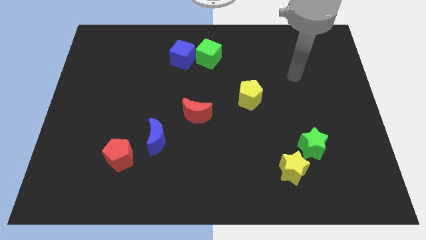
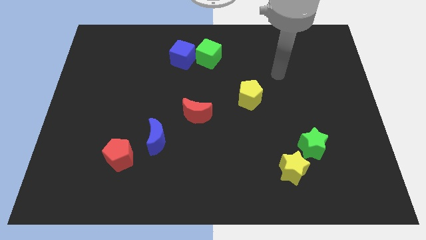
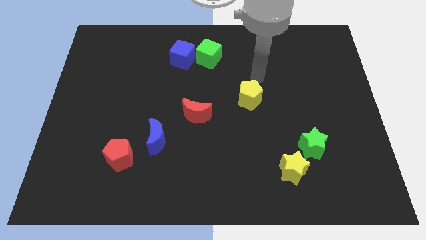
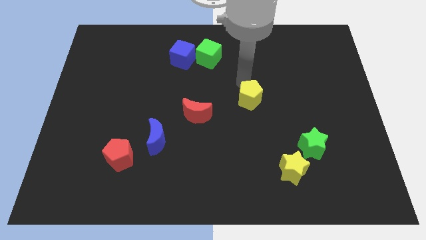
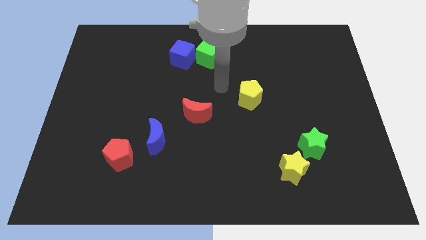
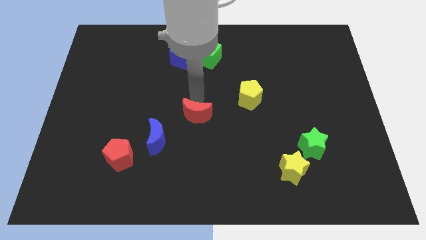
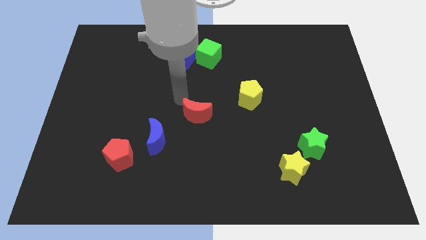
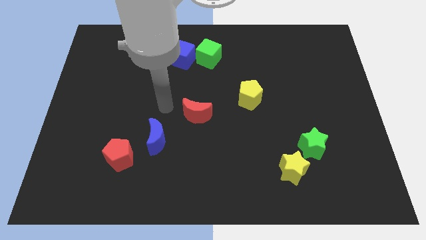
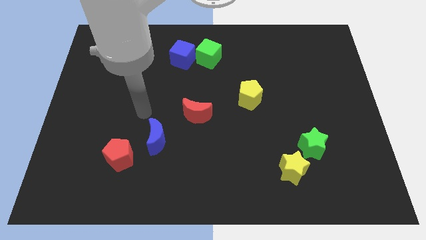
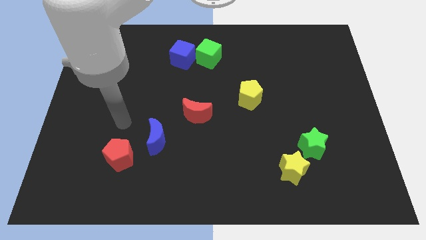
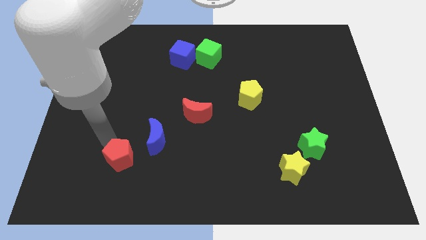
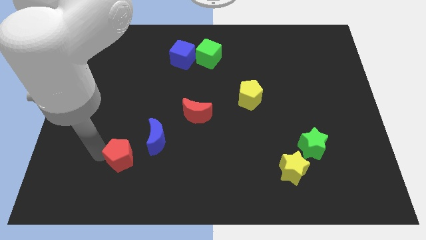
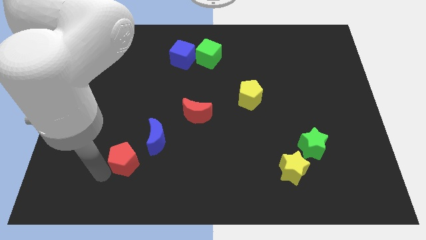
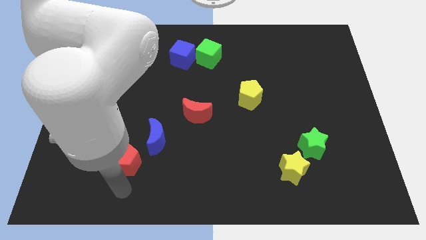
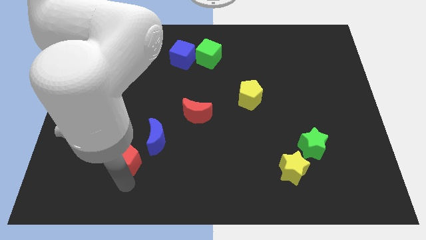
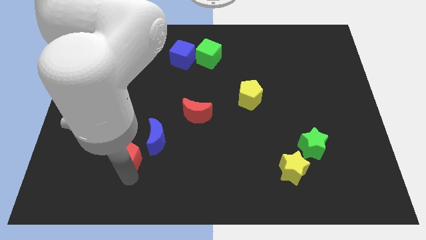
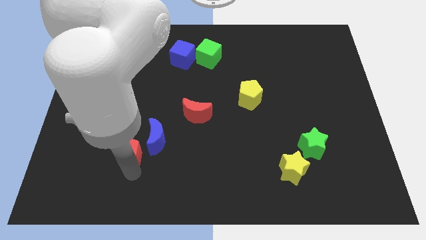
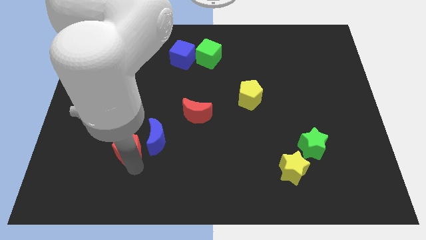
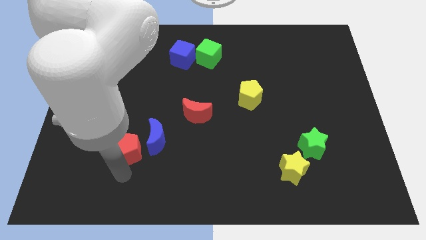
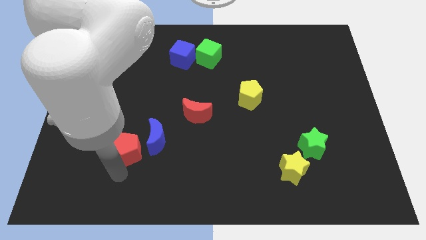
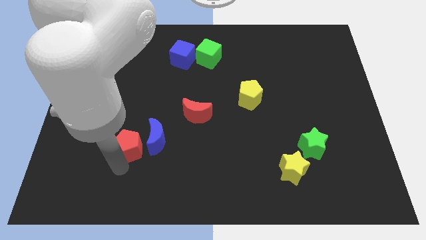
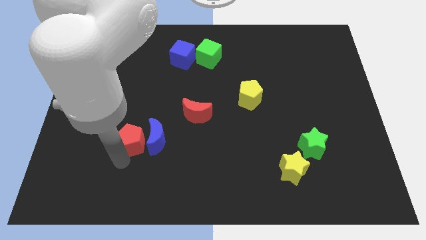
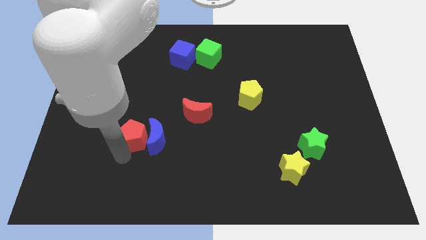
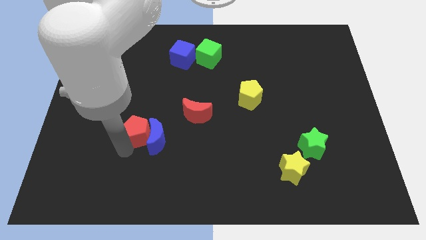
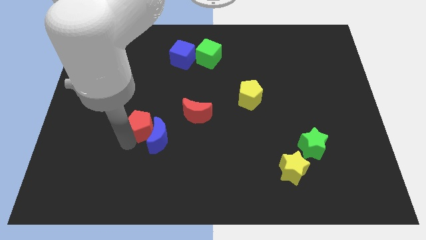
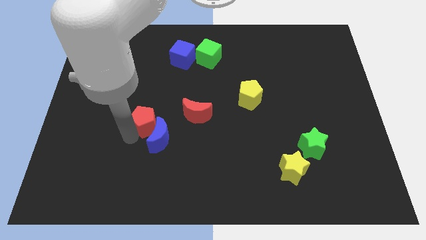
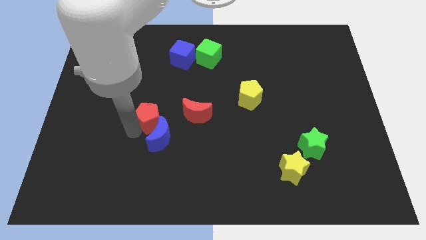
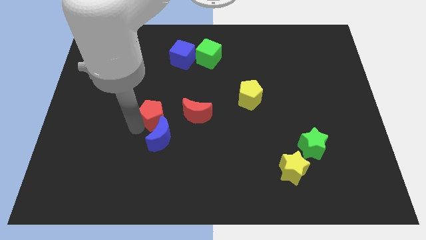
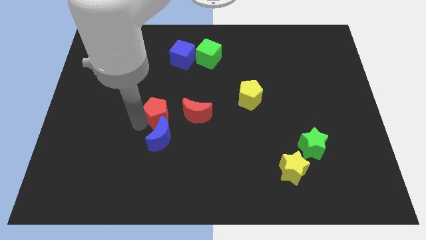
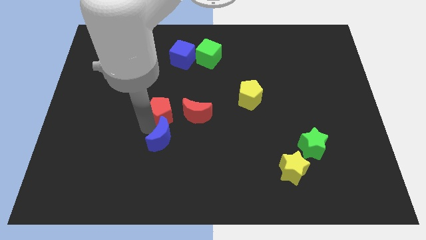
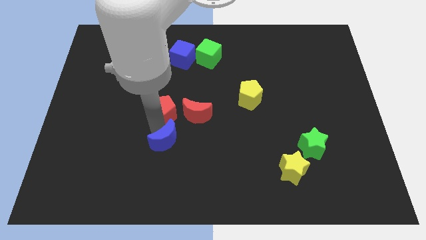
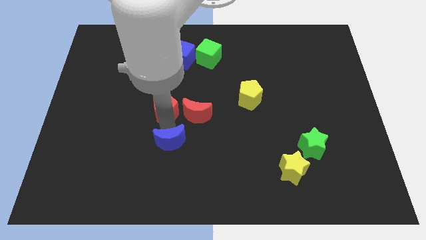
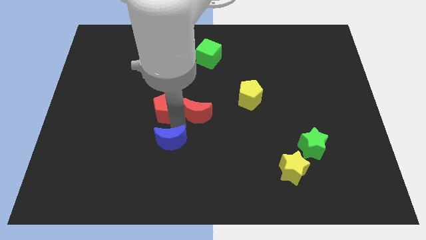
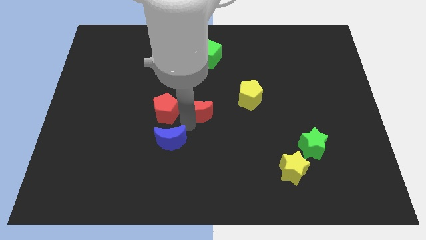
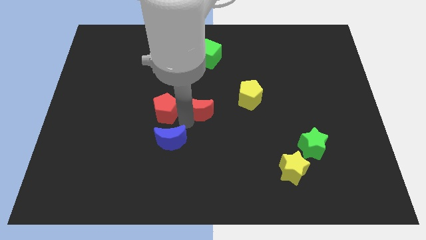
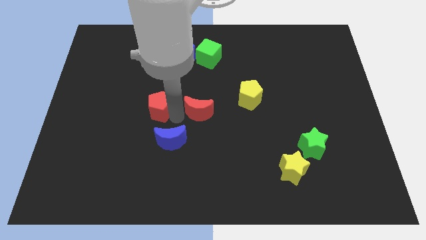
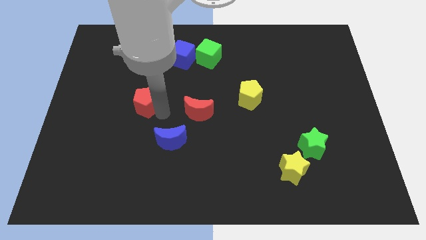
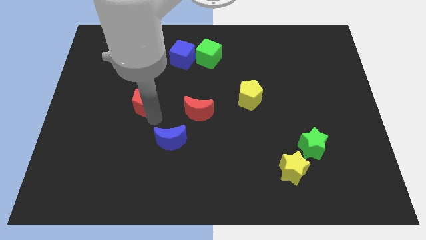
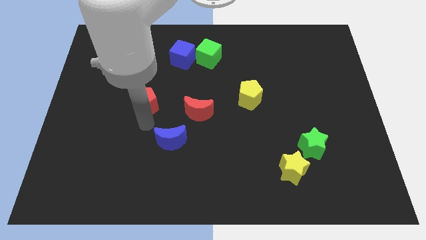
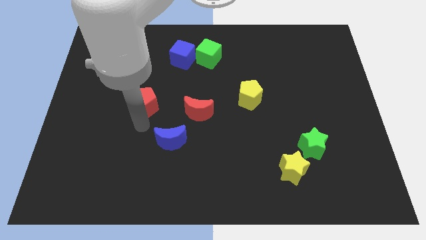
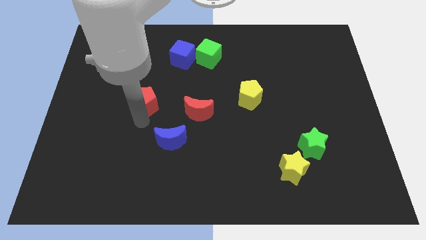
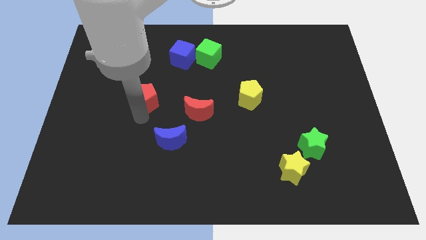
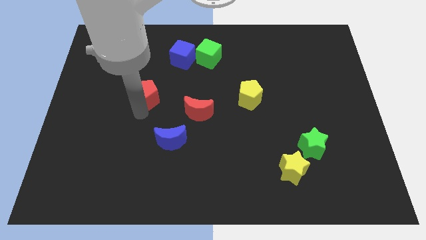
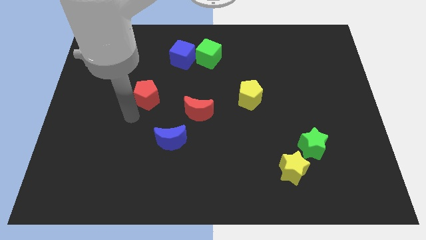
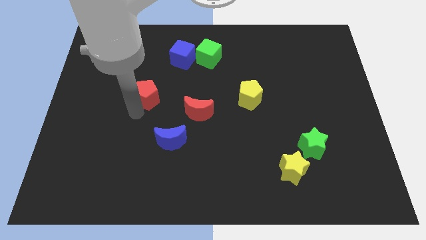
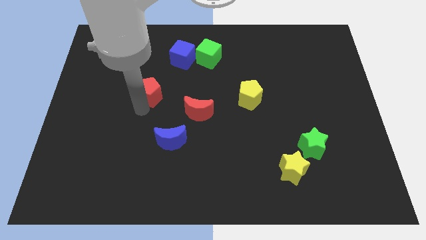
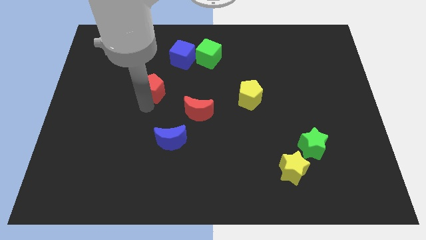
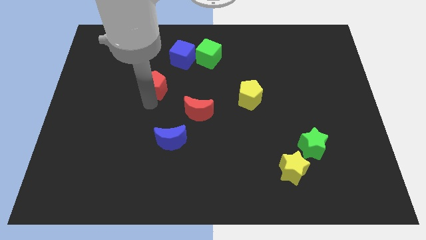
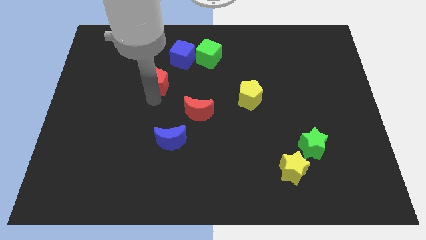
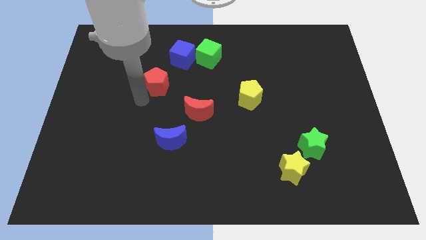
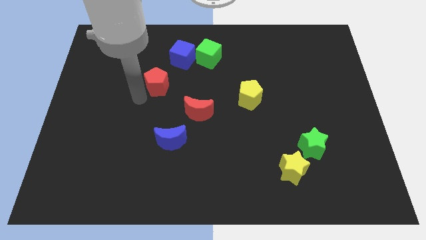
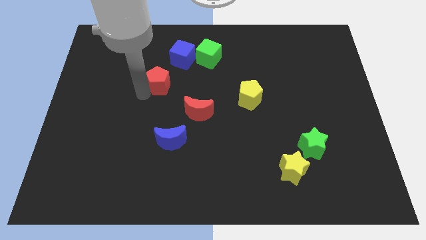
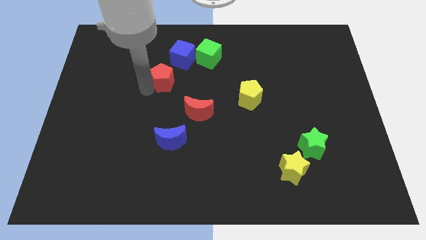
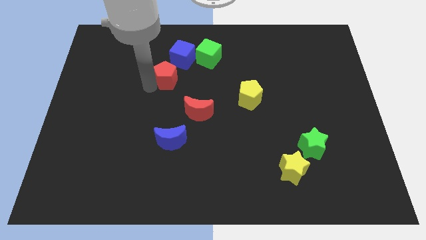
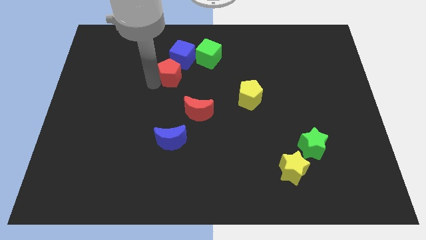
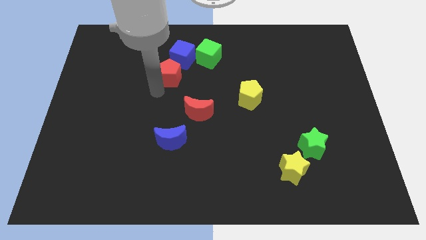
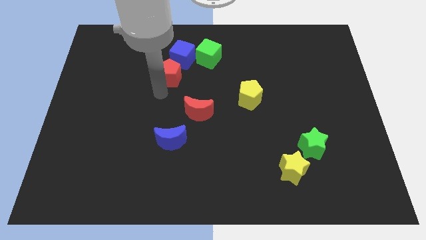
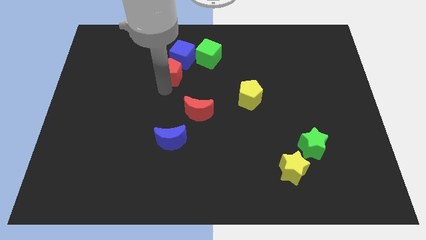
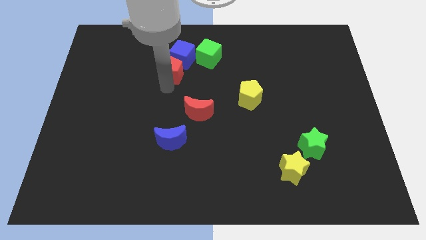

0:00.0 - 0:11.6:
slide the red pentagon close to the blue cube

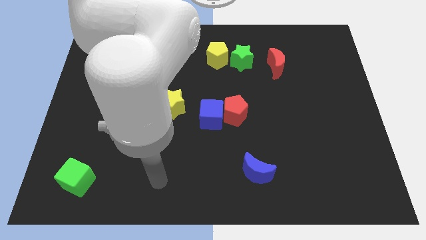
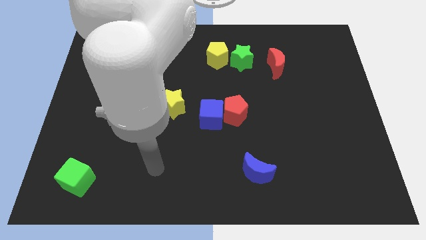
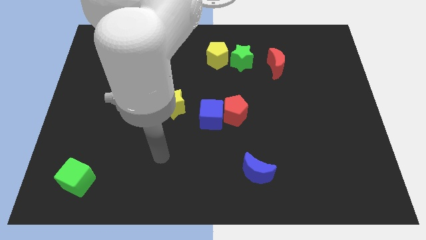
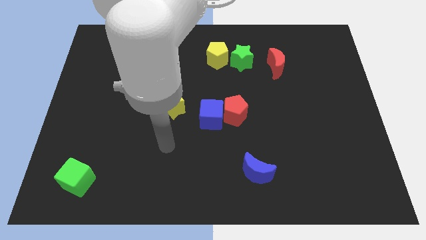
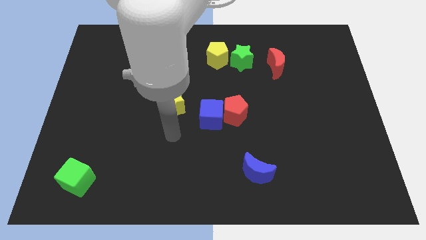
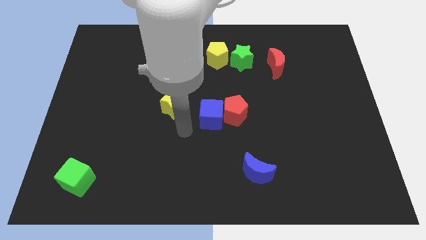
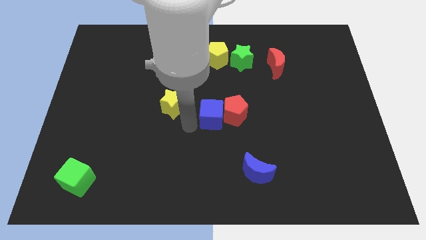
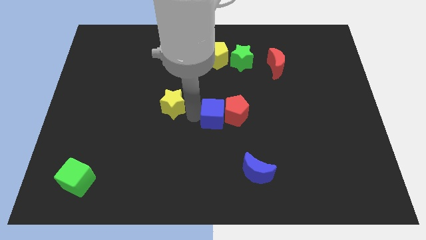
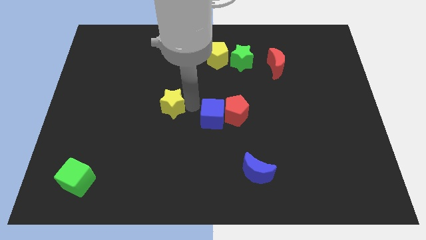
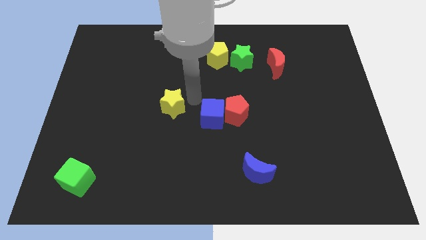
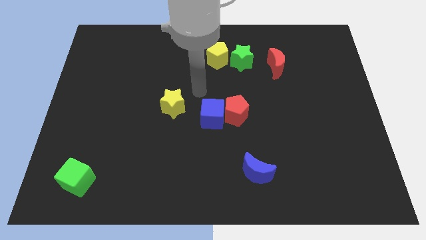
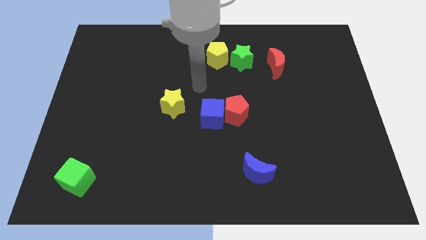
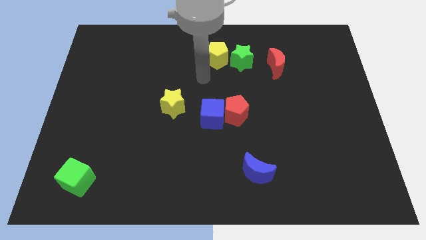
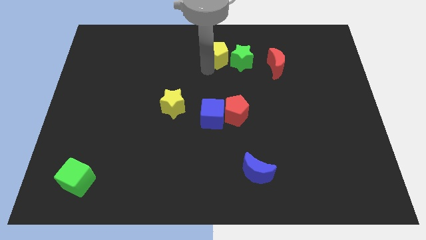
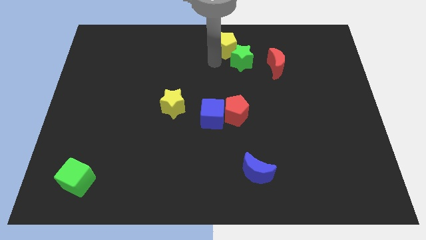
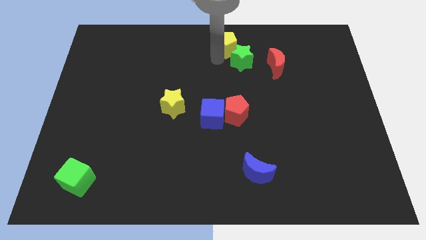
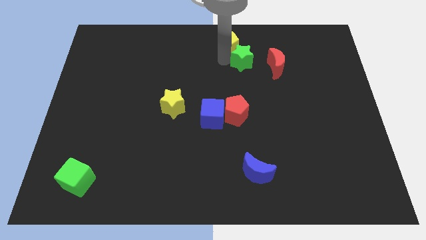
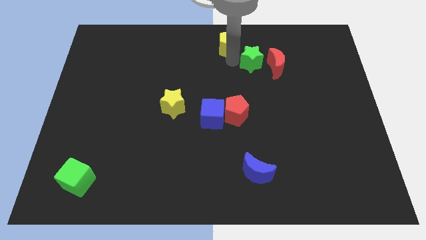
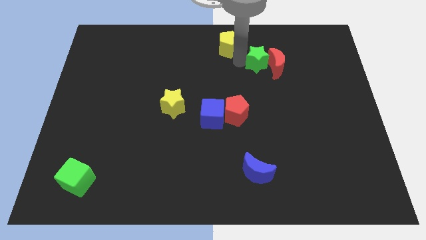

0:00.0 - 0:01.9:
slide the green star close to the red moon

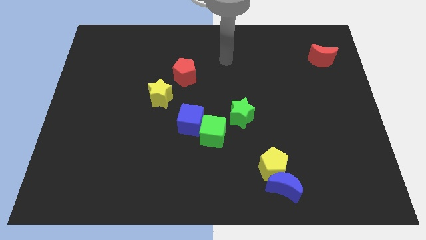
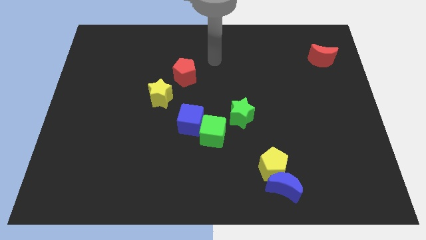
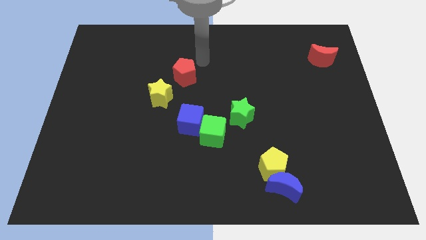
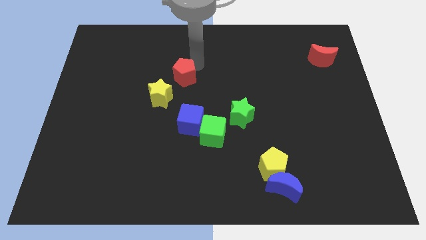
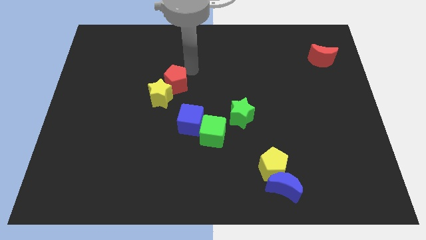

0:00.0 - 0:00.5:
push the red pentagon close to the yellow star
